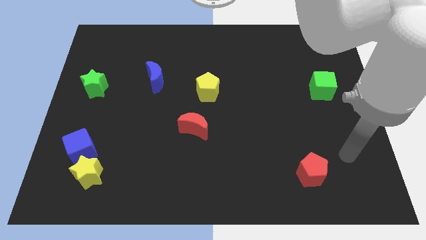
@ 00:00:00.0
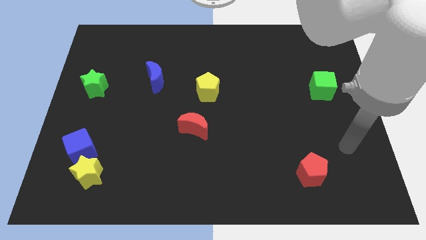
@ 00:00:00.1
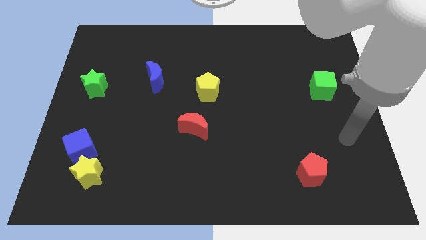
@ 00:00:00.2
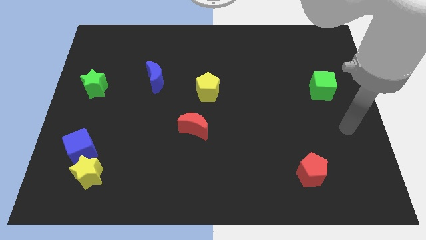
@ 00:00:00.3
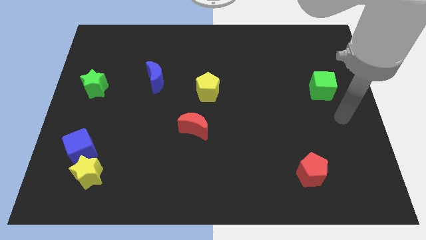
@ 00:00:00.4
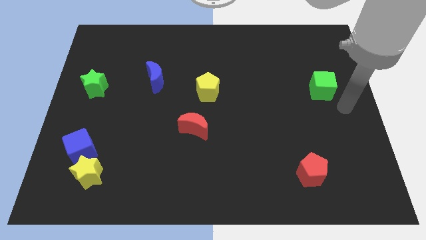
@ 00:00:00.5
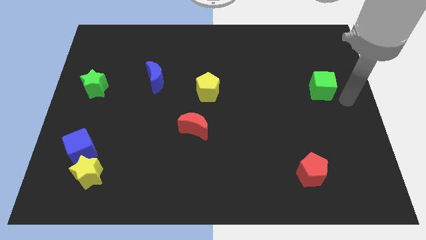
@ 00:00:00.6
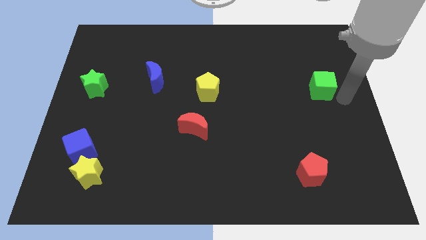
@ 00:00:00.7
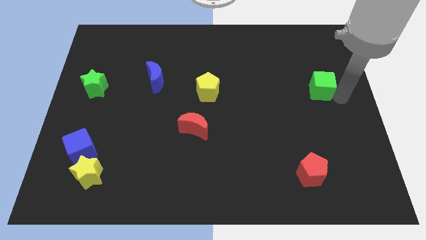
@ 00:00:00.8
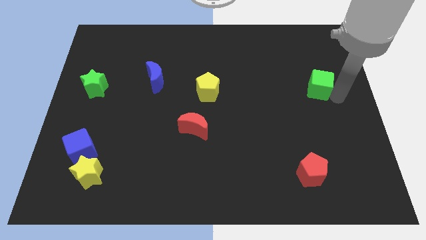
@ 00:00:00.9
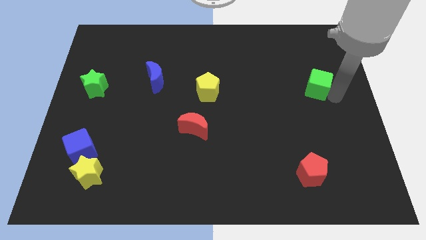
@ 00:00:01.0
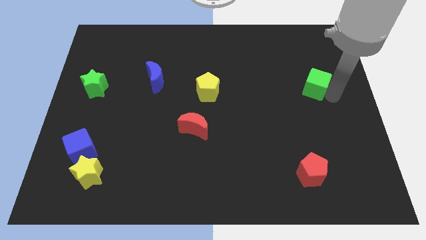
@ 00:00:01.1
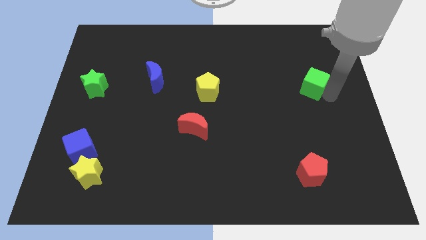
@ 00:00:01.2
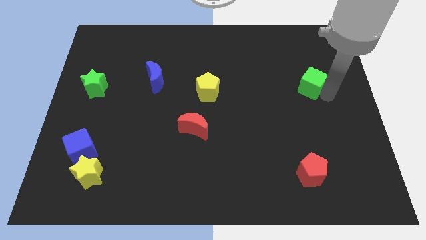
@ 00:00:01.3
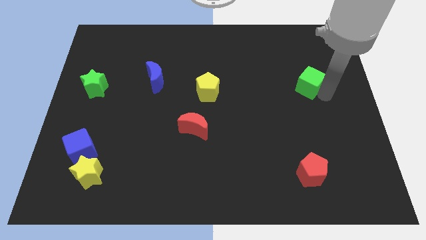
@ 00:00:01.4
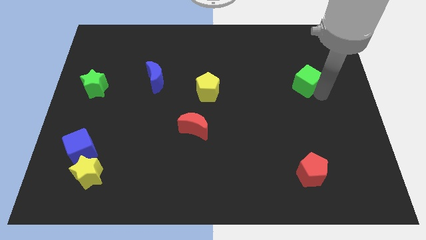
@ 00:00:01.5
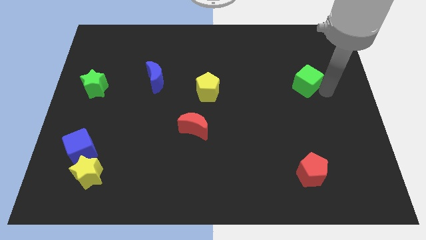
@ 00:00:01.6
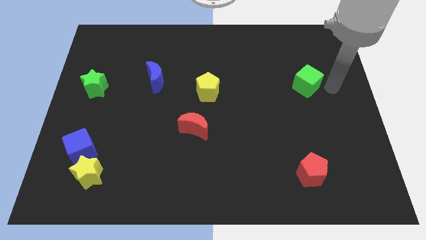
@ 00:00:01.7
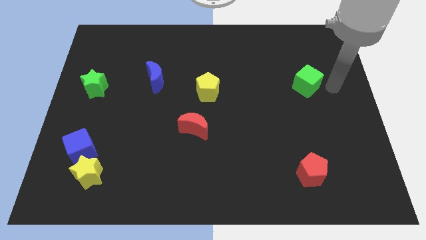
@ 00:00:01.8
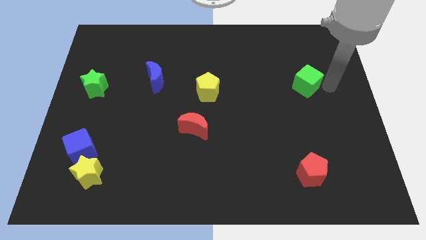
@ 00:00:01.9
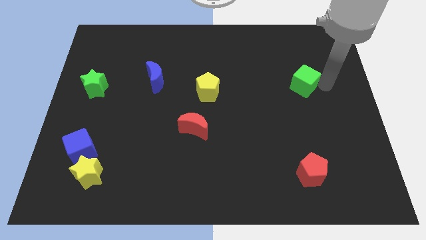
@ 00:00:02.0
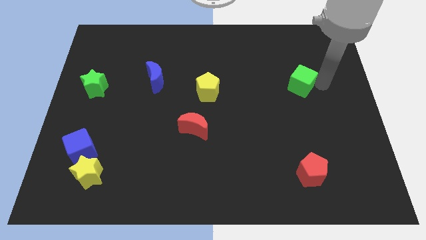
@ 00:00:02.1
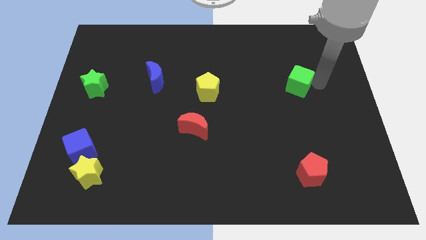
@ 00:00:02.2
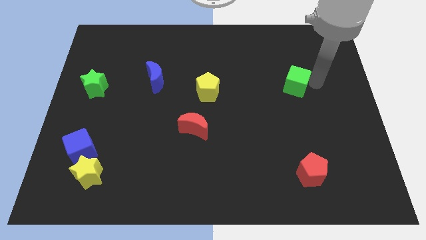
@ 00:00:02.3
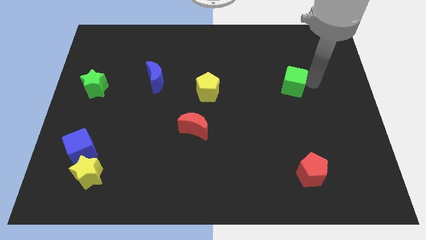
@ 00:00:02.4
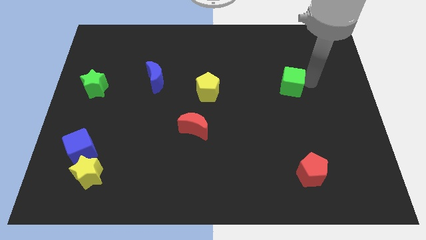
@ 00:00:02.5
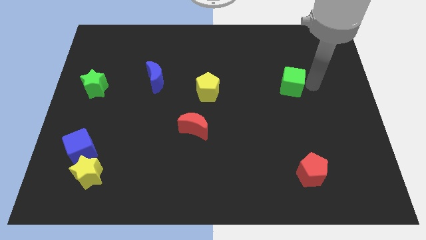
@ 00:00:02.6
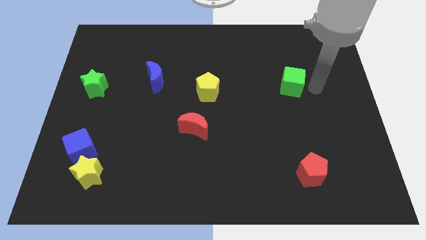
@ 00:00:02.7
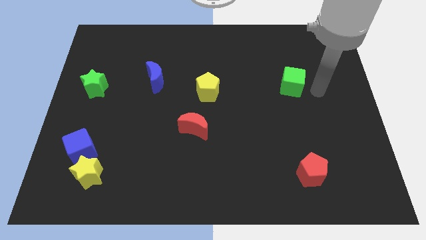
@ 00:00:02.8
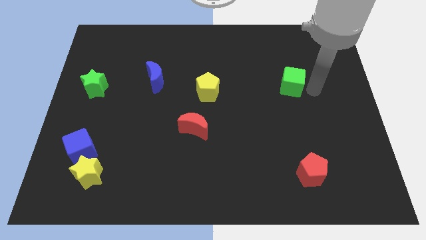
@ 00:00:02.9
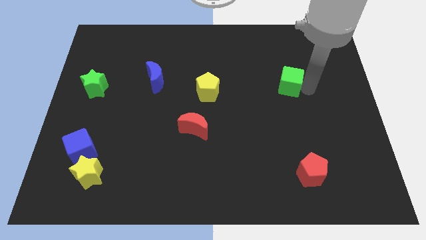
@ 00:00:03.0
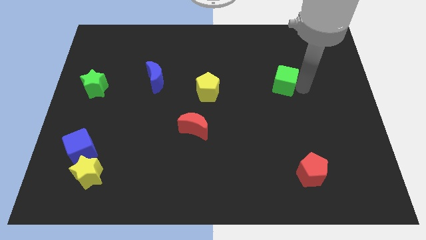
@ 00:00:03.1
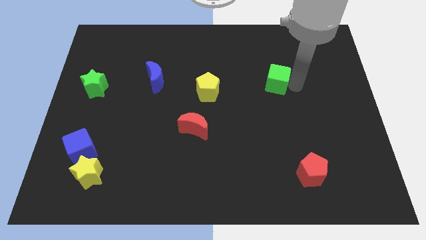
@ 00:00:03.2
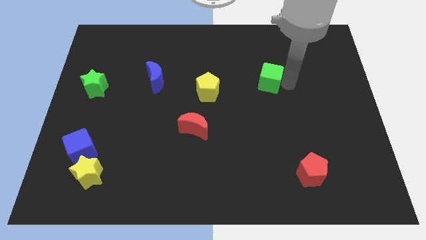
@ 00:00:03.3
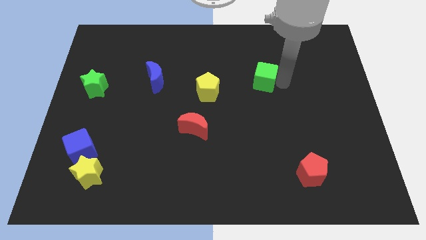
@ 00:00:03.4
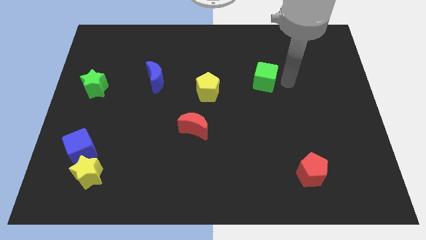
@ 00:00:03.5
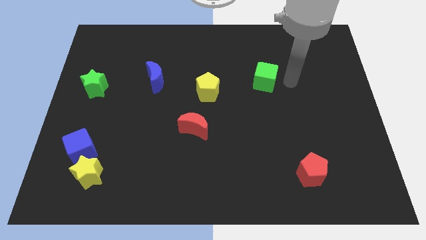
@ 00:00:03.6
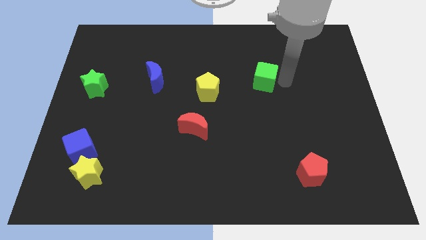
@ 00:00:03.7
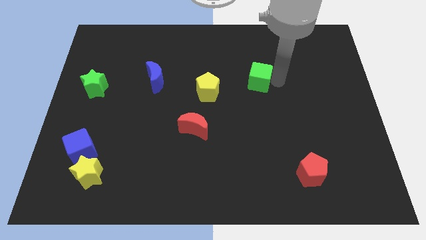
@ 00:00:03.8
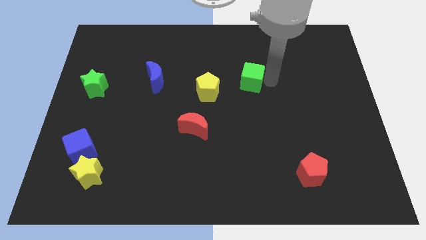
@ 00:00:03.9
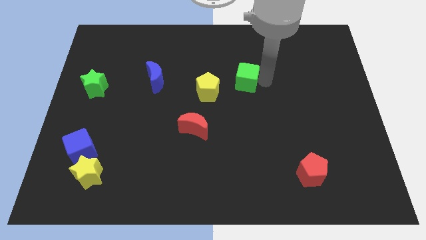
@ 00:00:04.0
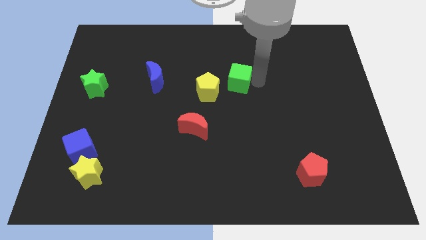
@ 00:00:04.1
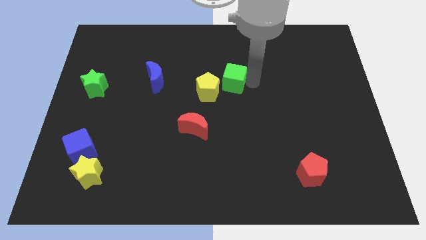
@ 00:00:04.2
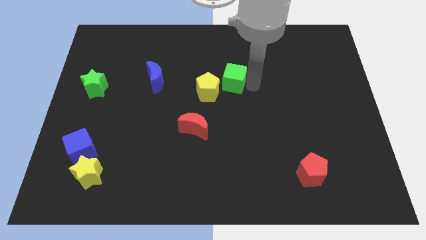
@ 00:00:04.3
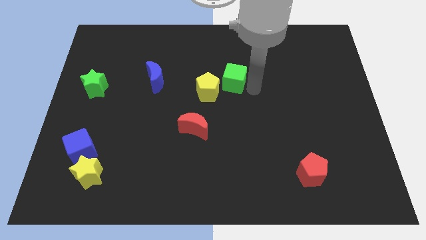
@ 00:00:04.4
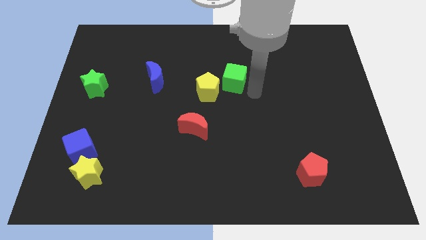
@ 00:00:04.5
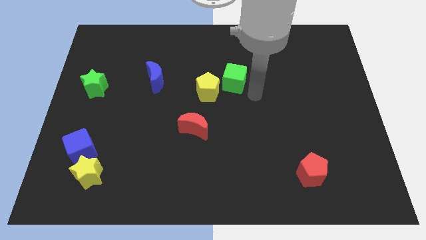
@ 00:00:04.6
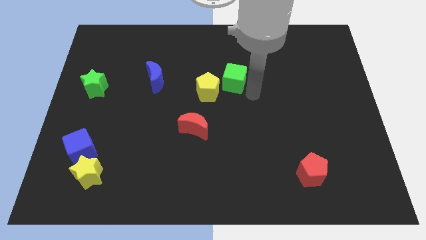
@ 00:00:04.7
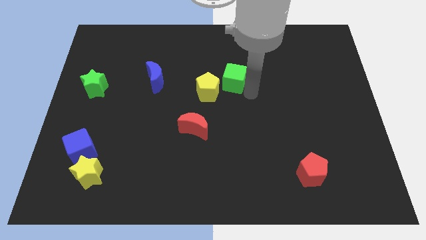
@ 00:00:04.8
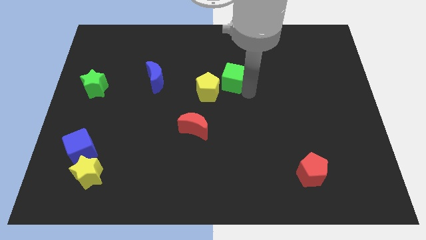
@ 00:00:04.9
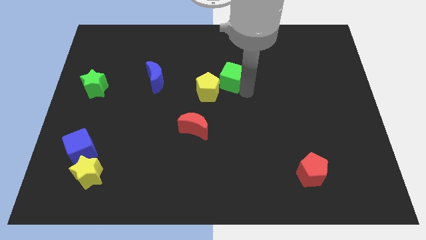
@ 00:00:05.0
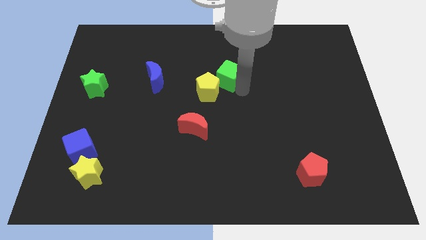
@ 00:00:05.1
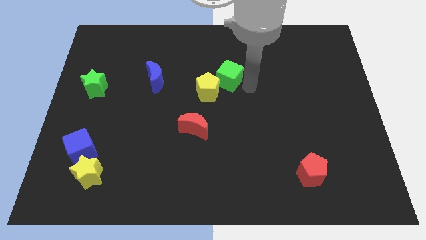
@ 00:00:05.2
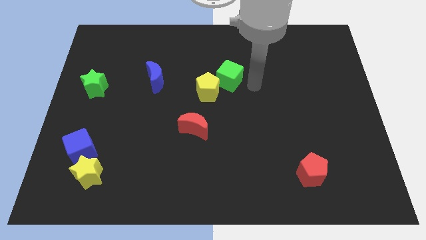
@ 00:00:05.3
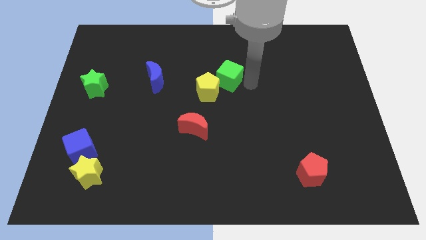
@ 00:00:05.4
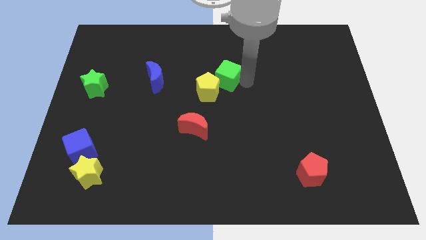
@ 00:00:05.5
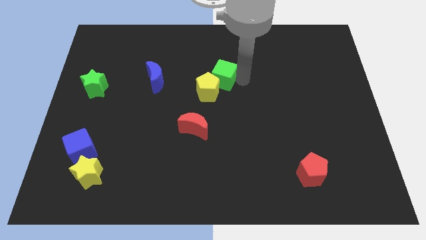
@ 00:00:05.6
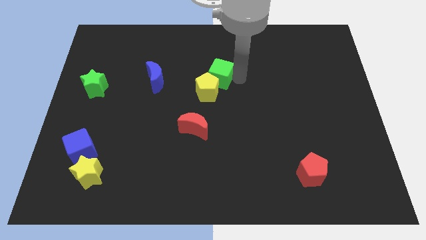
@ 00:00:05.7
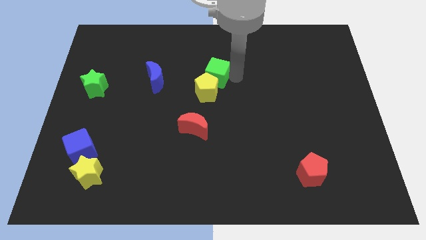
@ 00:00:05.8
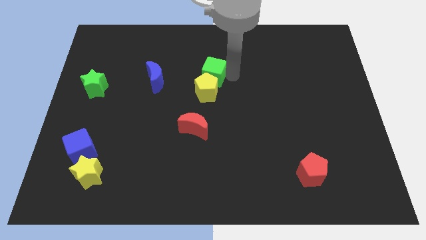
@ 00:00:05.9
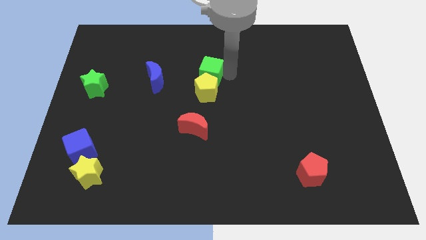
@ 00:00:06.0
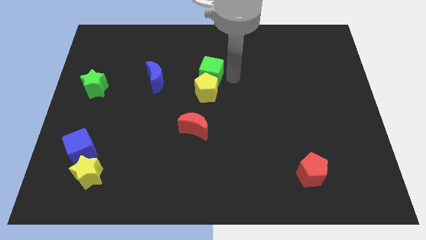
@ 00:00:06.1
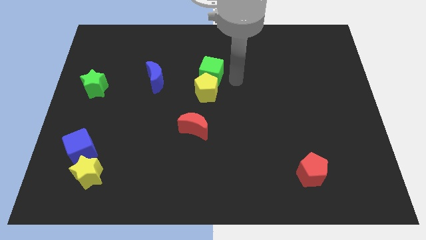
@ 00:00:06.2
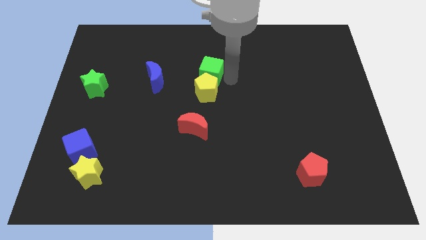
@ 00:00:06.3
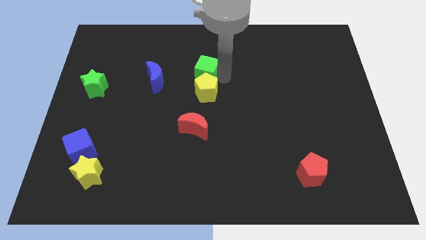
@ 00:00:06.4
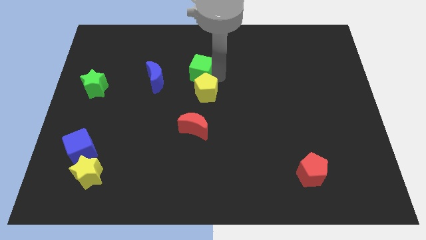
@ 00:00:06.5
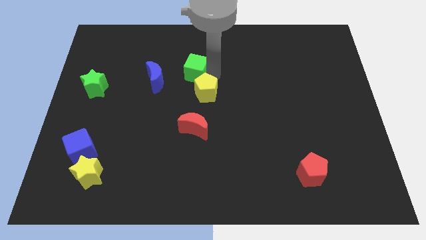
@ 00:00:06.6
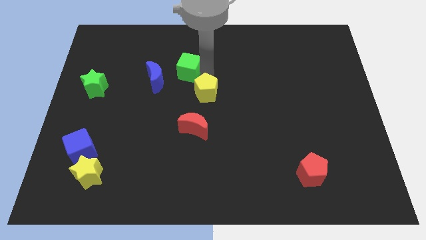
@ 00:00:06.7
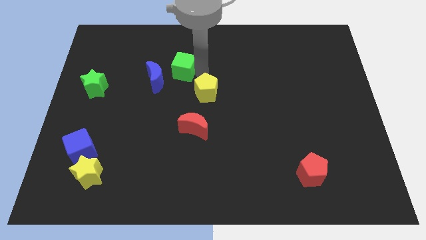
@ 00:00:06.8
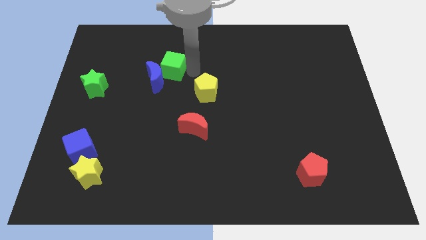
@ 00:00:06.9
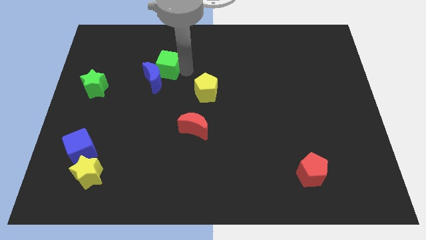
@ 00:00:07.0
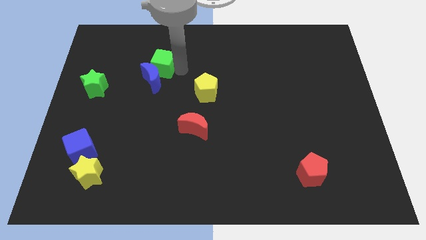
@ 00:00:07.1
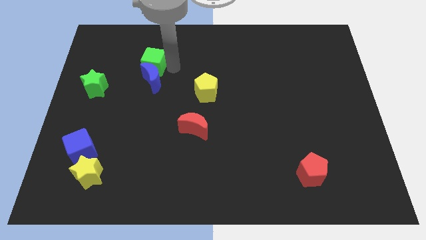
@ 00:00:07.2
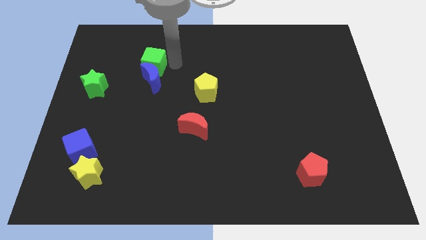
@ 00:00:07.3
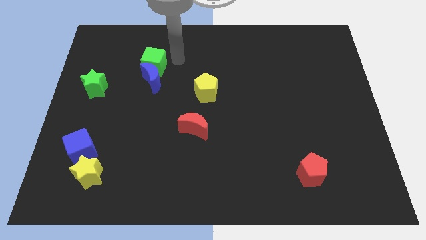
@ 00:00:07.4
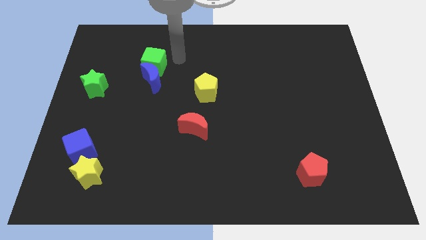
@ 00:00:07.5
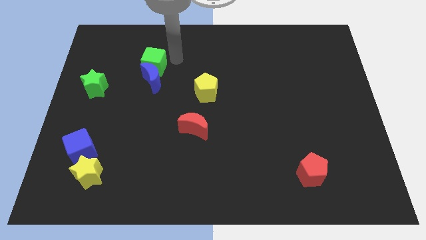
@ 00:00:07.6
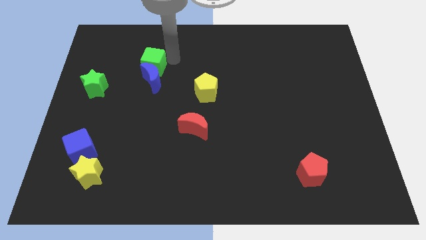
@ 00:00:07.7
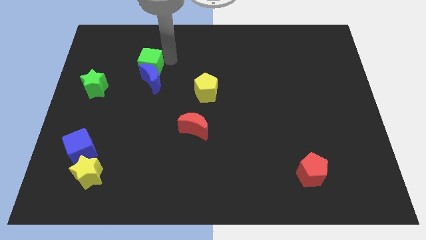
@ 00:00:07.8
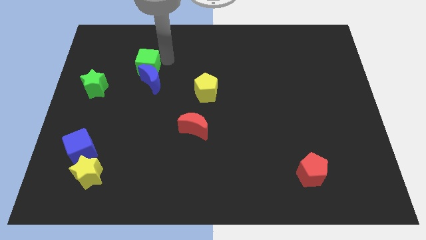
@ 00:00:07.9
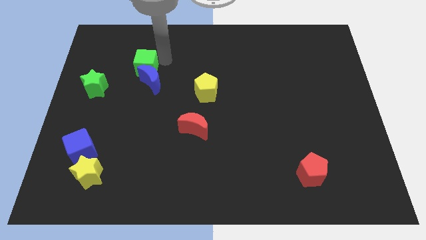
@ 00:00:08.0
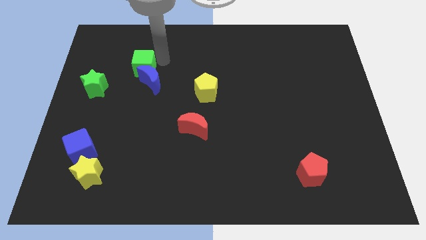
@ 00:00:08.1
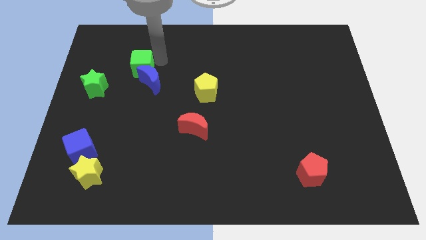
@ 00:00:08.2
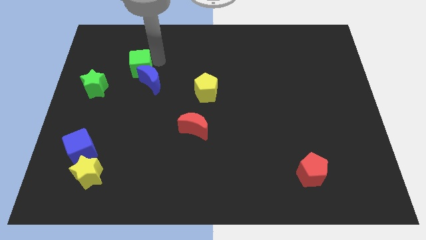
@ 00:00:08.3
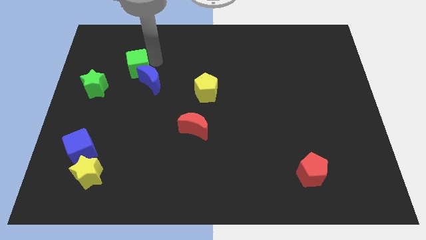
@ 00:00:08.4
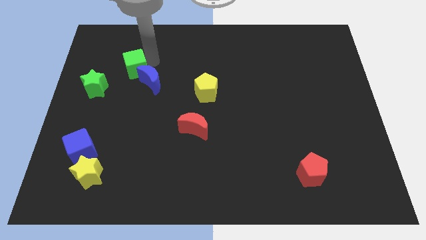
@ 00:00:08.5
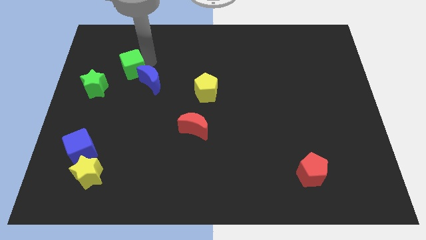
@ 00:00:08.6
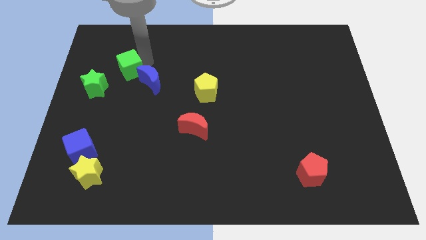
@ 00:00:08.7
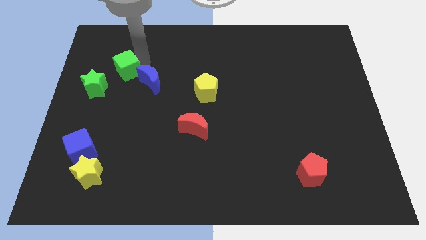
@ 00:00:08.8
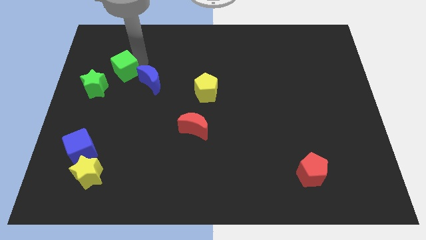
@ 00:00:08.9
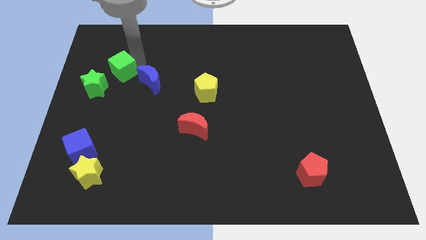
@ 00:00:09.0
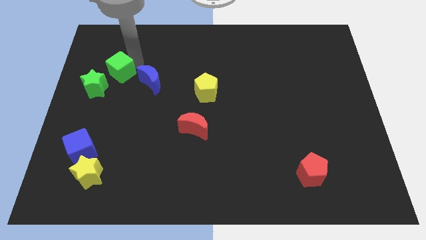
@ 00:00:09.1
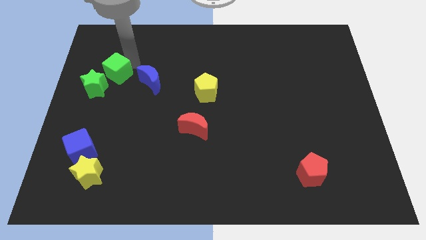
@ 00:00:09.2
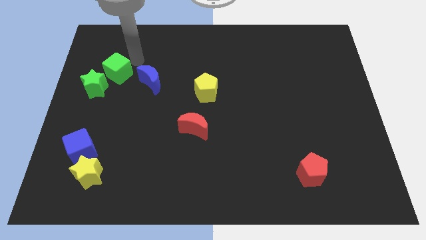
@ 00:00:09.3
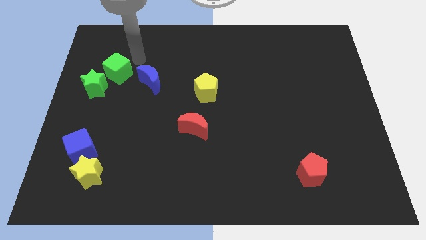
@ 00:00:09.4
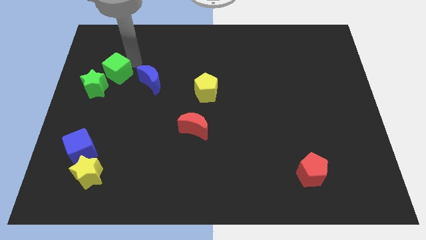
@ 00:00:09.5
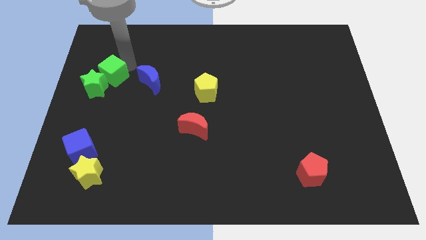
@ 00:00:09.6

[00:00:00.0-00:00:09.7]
move the green cube next to the green star
